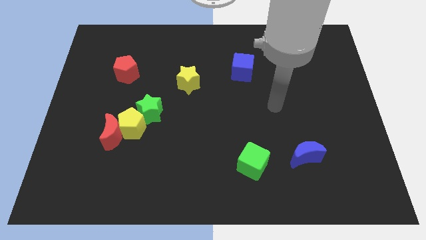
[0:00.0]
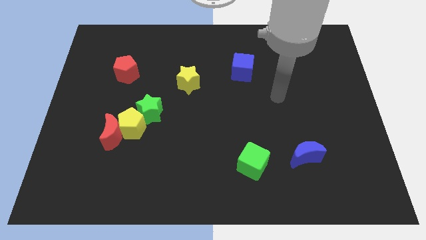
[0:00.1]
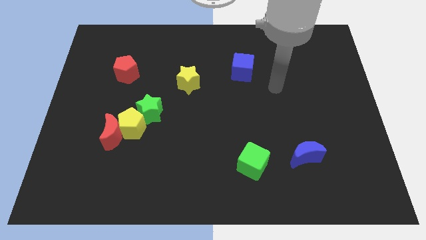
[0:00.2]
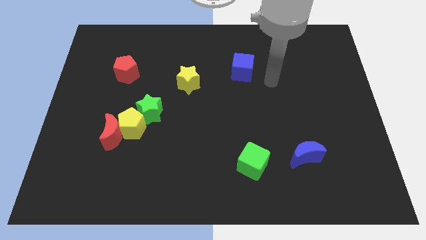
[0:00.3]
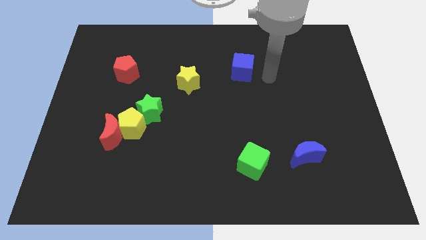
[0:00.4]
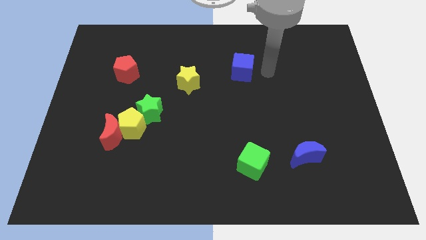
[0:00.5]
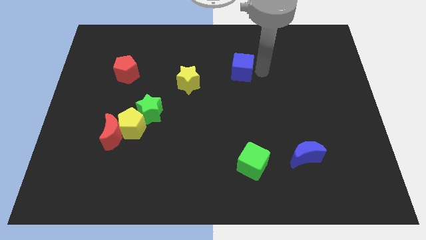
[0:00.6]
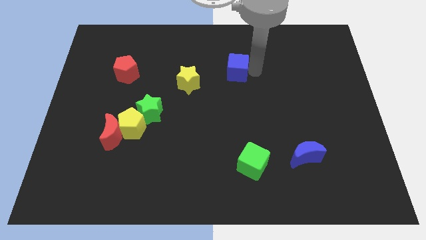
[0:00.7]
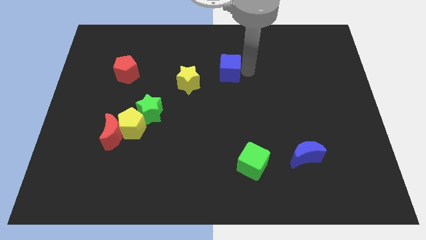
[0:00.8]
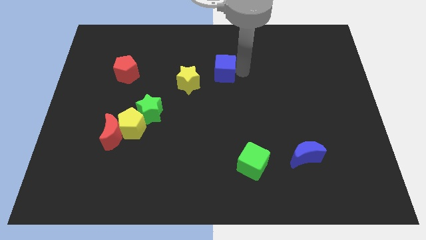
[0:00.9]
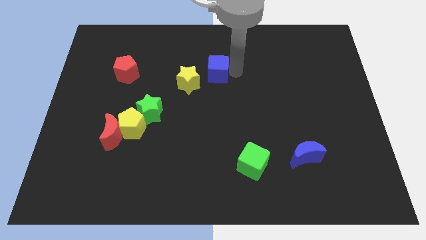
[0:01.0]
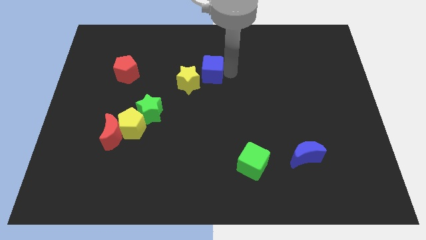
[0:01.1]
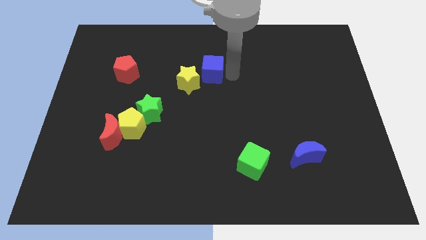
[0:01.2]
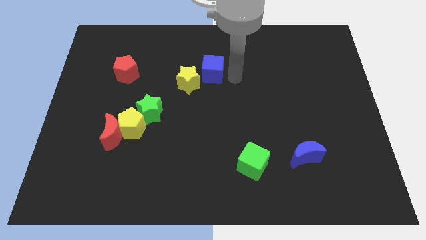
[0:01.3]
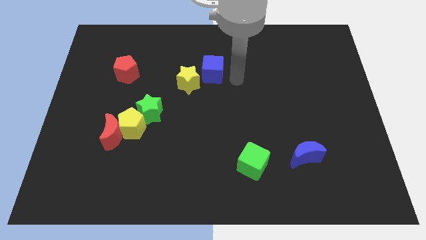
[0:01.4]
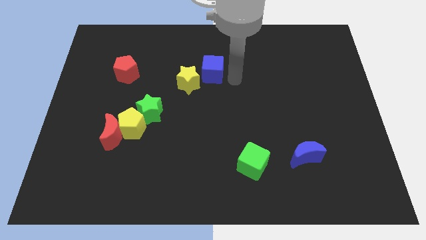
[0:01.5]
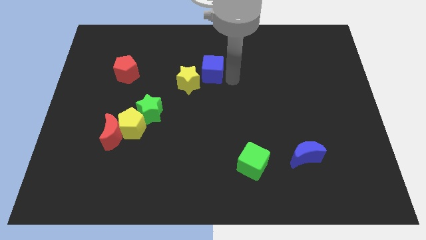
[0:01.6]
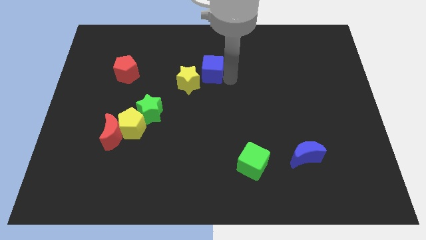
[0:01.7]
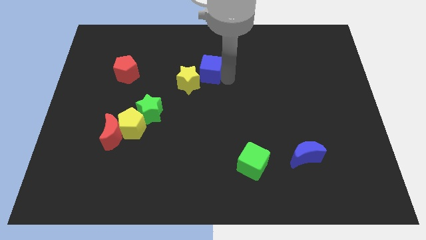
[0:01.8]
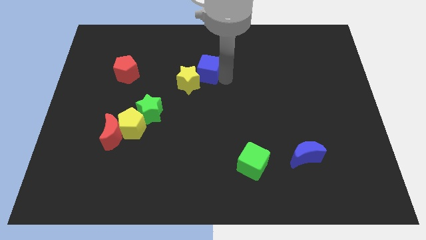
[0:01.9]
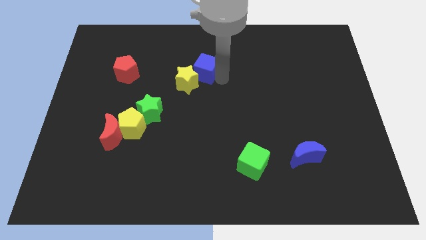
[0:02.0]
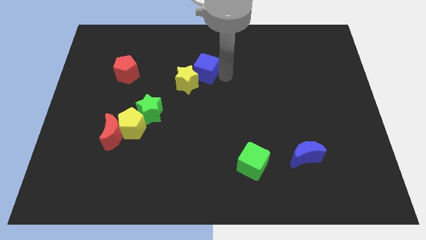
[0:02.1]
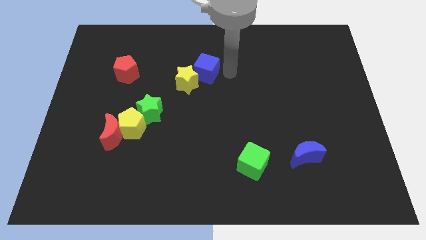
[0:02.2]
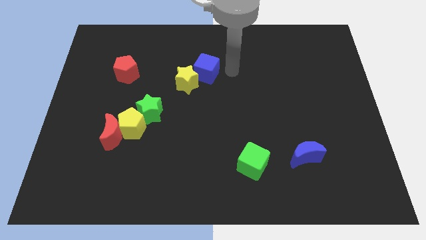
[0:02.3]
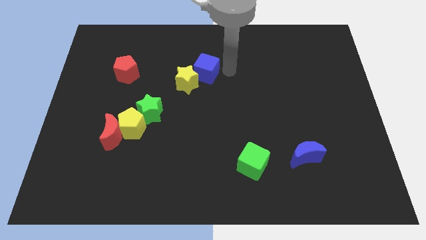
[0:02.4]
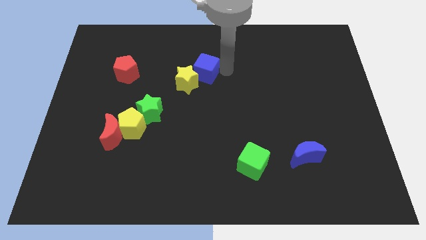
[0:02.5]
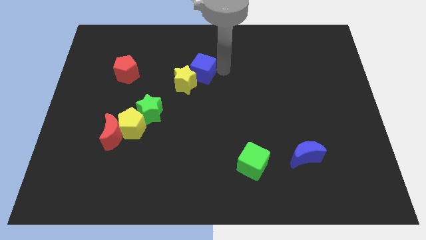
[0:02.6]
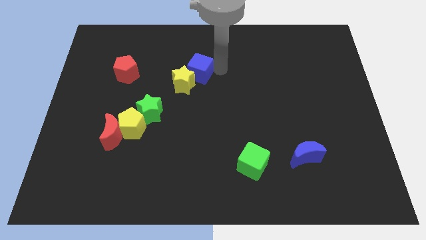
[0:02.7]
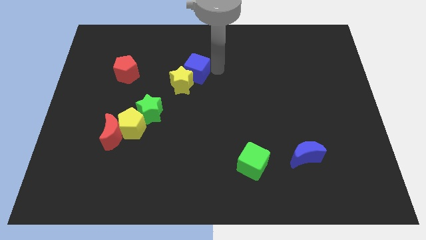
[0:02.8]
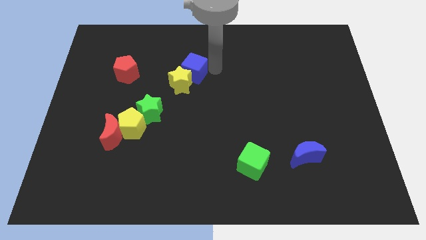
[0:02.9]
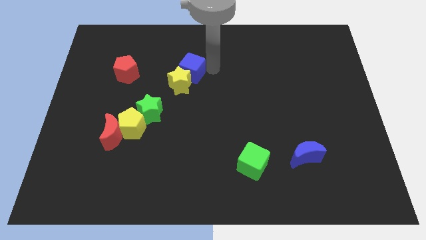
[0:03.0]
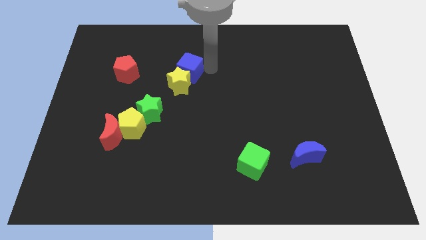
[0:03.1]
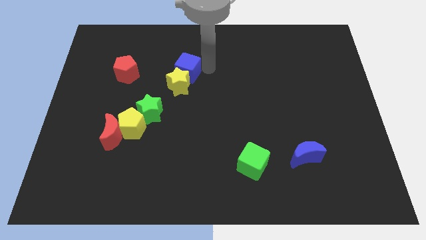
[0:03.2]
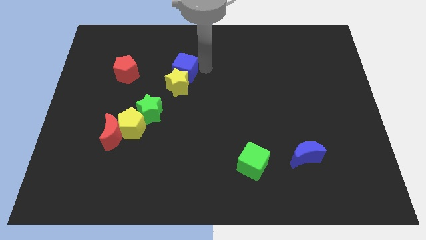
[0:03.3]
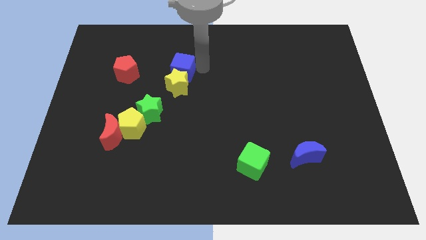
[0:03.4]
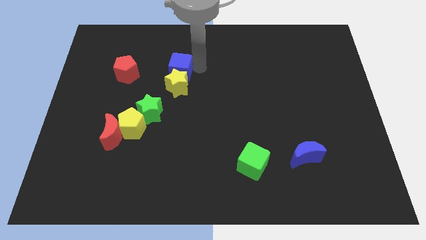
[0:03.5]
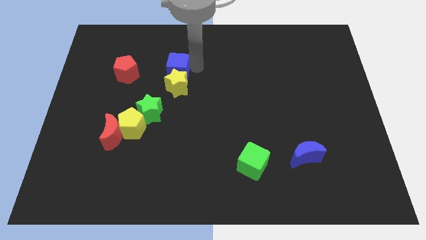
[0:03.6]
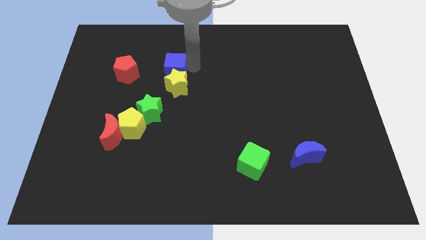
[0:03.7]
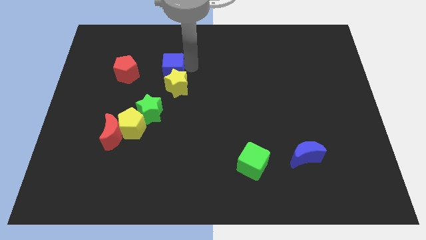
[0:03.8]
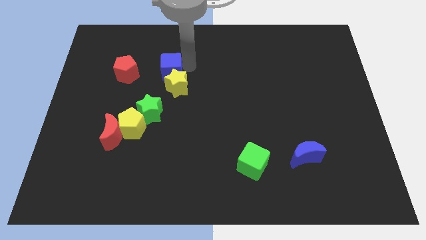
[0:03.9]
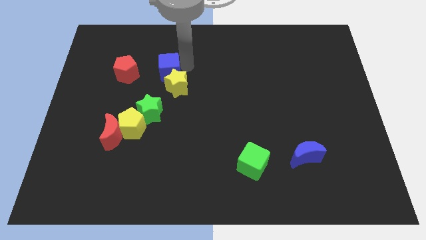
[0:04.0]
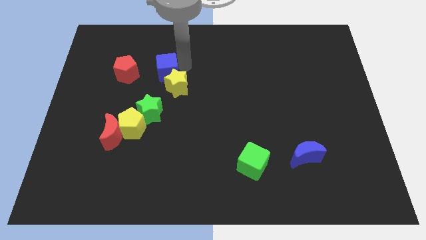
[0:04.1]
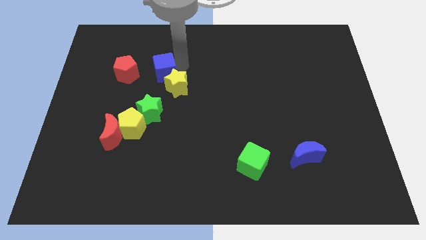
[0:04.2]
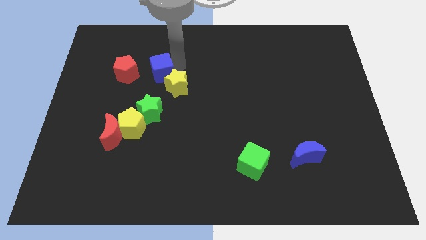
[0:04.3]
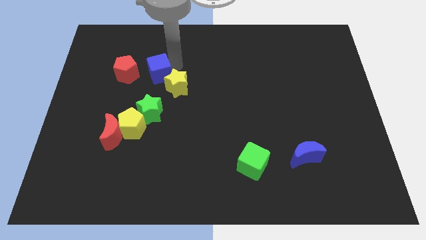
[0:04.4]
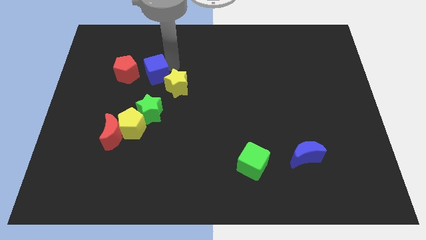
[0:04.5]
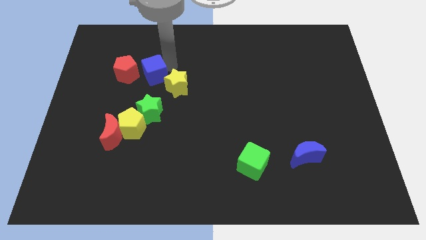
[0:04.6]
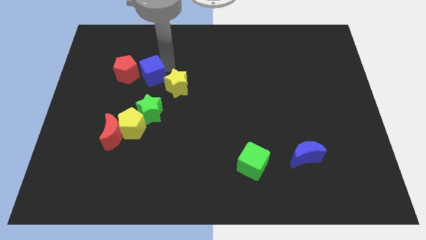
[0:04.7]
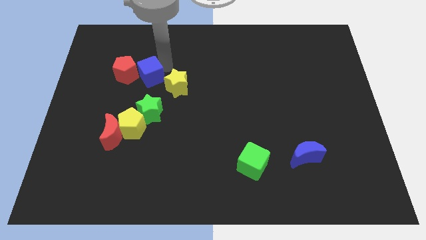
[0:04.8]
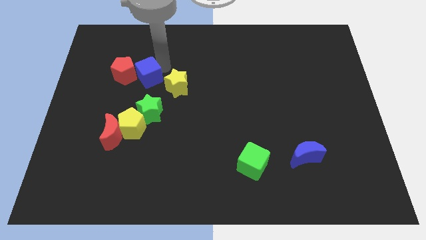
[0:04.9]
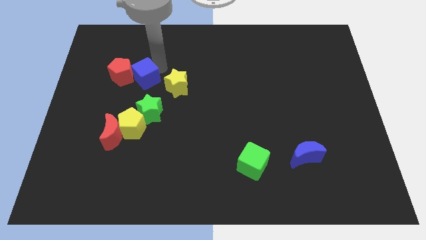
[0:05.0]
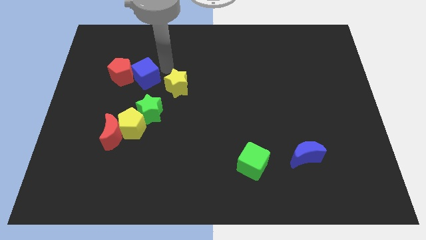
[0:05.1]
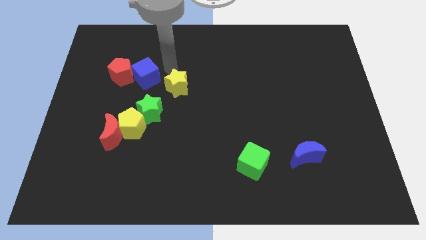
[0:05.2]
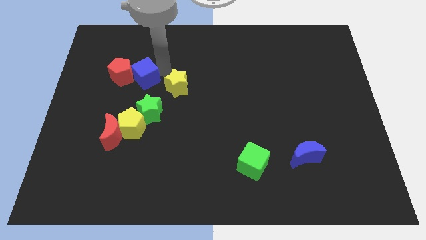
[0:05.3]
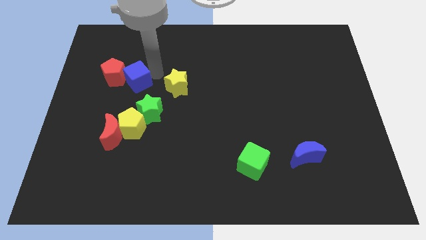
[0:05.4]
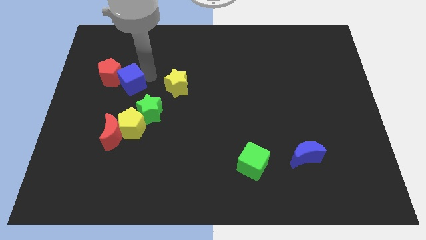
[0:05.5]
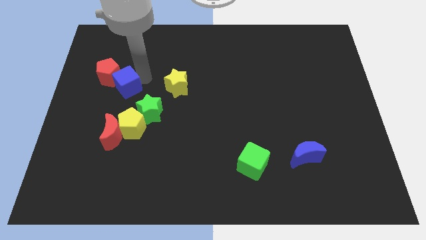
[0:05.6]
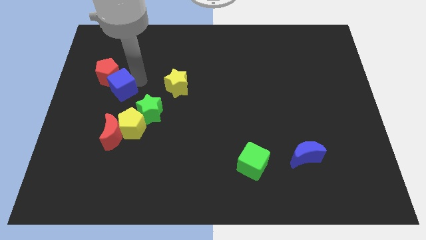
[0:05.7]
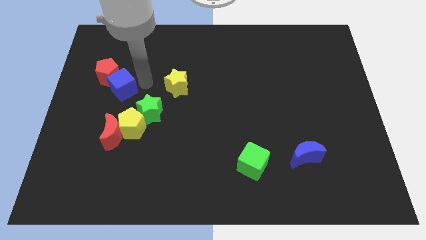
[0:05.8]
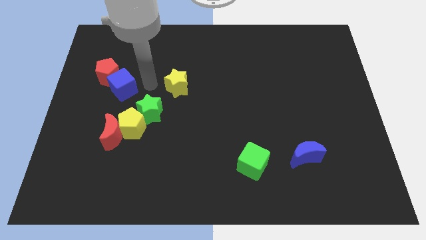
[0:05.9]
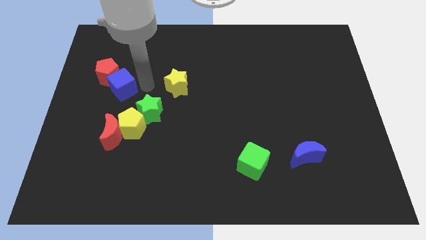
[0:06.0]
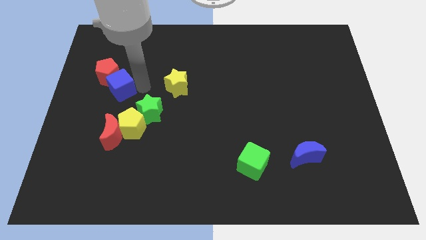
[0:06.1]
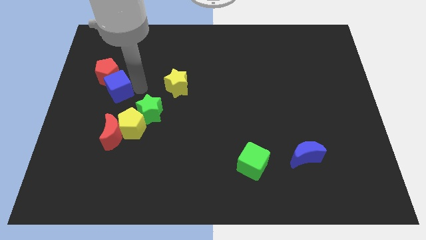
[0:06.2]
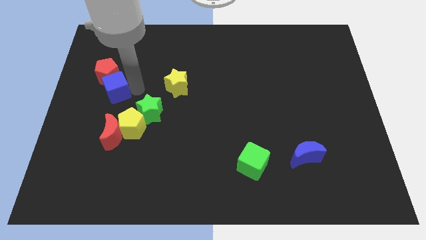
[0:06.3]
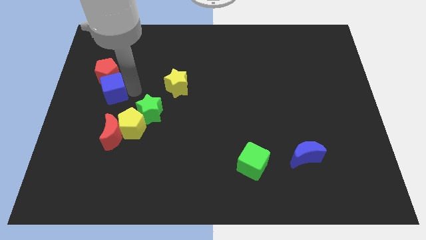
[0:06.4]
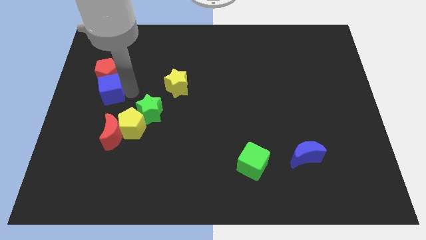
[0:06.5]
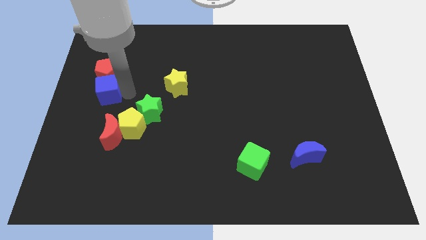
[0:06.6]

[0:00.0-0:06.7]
slide the blue cube to the left side of the board
